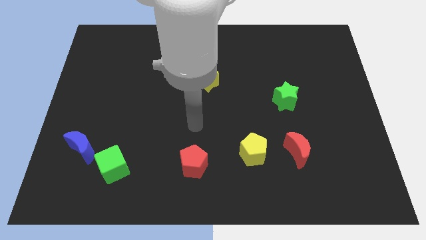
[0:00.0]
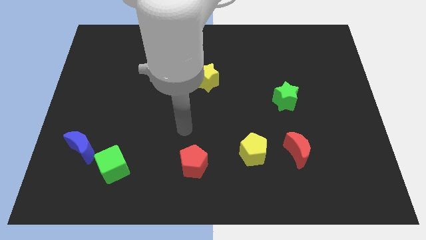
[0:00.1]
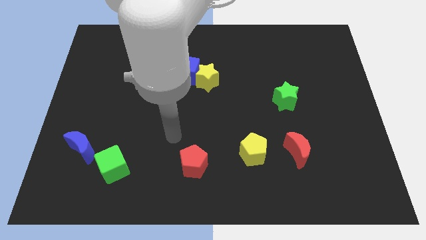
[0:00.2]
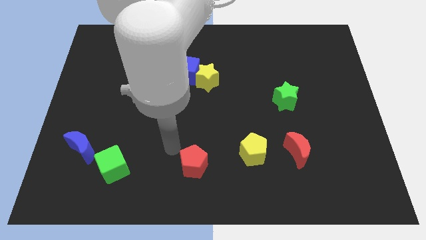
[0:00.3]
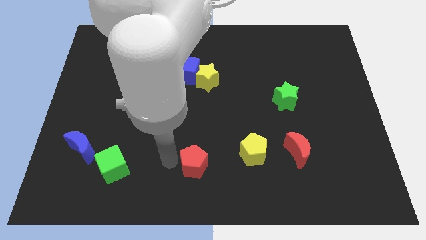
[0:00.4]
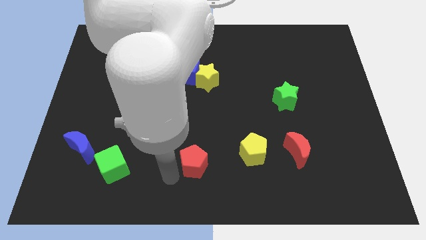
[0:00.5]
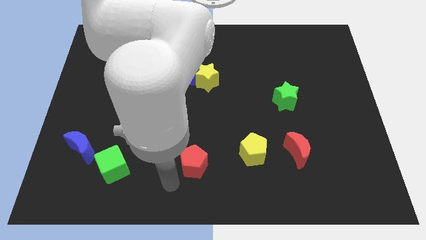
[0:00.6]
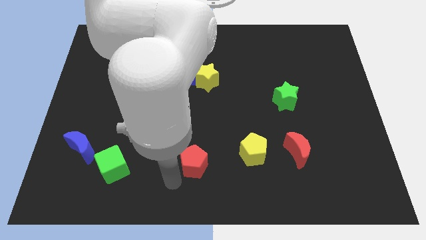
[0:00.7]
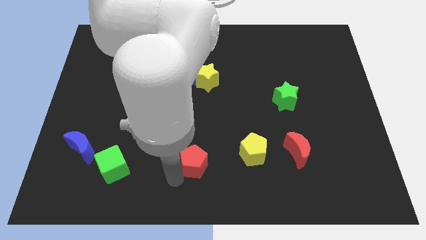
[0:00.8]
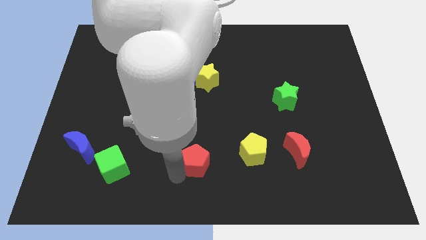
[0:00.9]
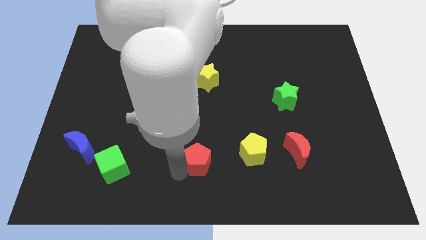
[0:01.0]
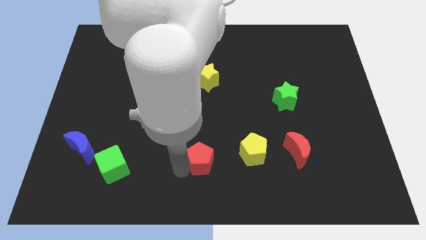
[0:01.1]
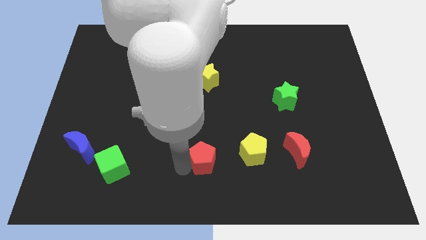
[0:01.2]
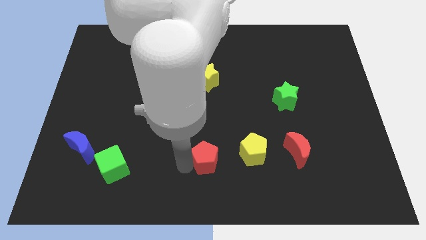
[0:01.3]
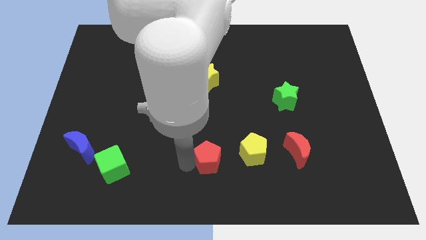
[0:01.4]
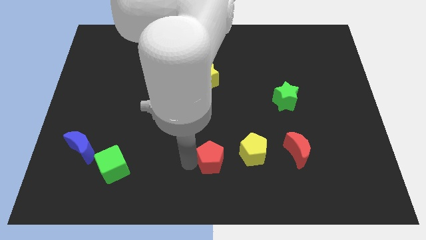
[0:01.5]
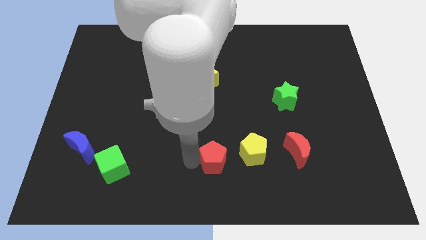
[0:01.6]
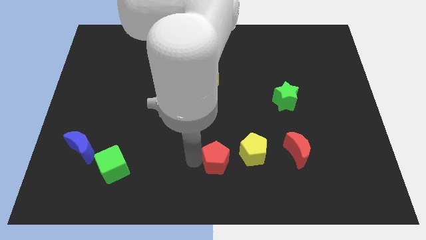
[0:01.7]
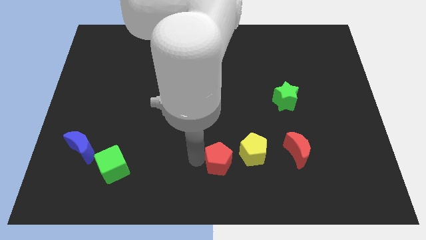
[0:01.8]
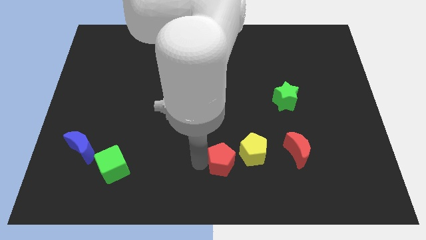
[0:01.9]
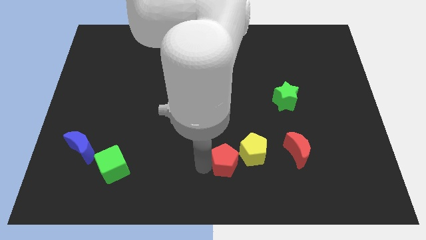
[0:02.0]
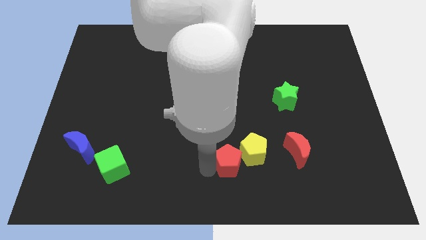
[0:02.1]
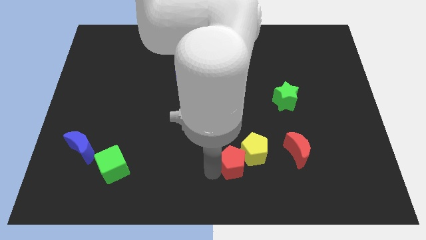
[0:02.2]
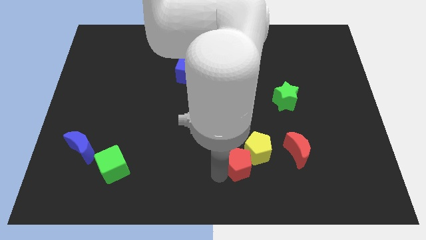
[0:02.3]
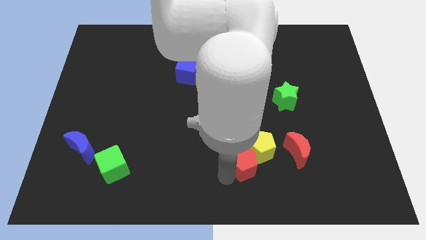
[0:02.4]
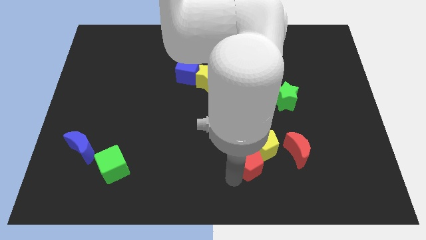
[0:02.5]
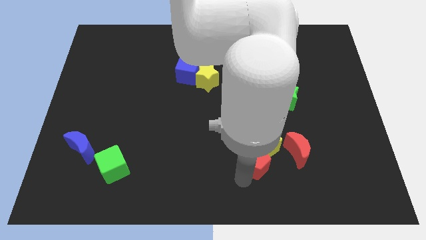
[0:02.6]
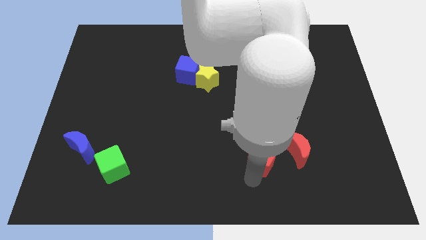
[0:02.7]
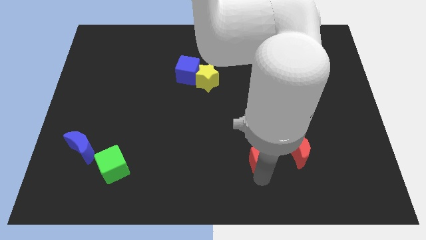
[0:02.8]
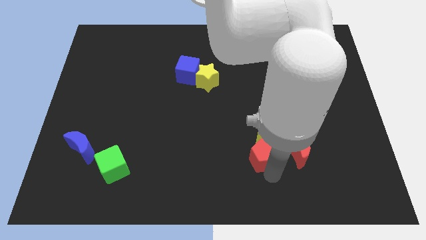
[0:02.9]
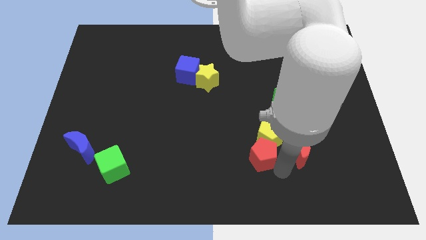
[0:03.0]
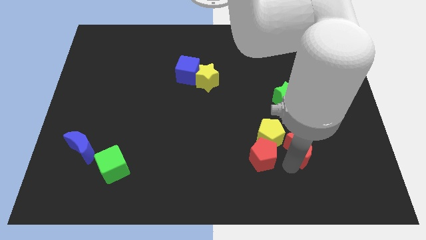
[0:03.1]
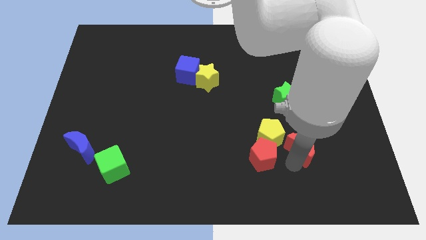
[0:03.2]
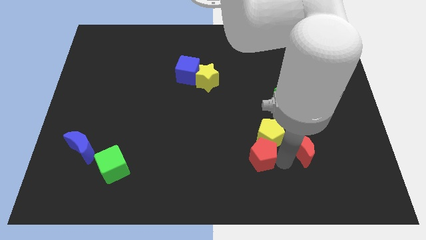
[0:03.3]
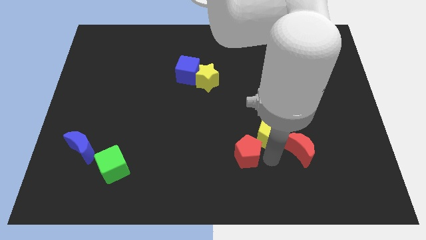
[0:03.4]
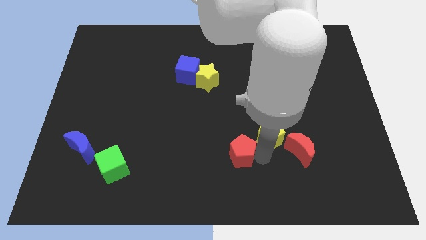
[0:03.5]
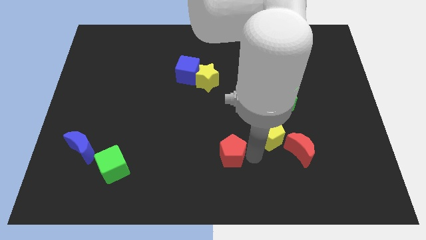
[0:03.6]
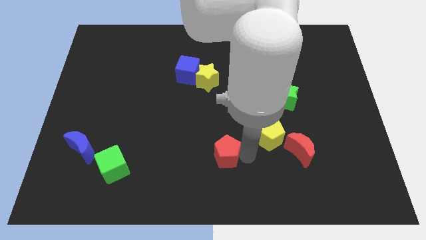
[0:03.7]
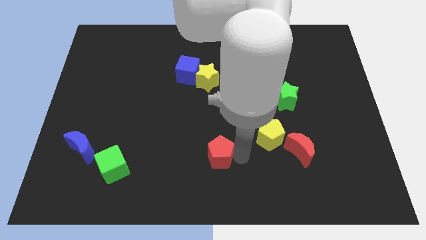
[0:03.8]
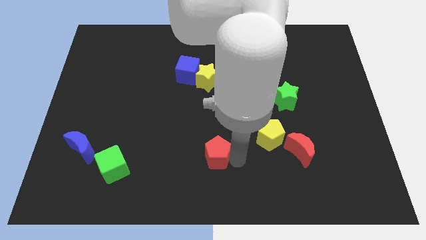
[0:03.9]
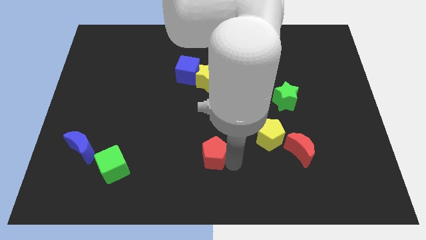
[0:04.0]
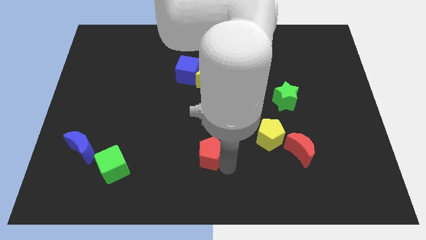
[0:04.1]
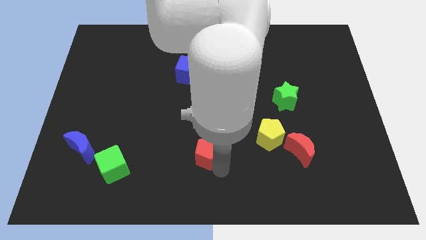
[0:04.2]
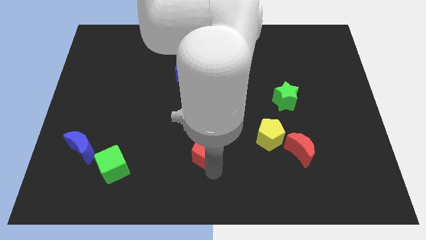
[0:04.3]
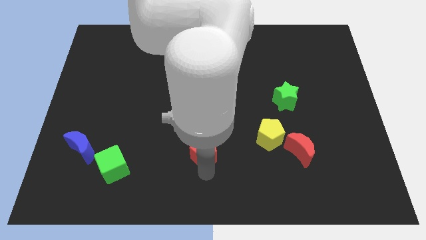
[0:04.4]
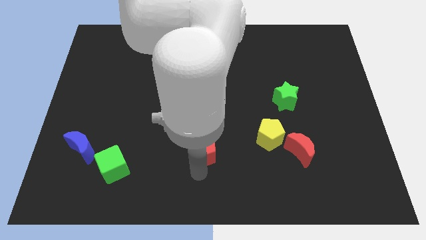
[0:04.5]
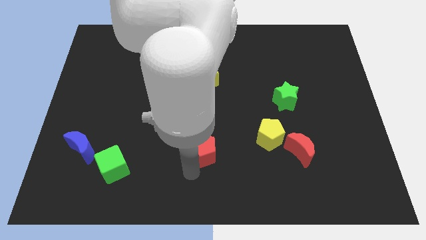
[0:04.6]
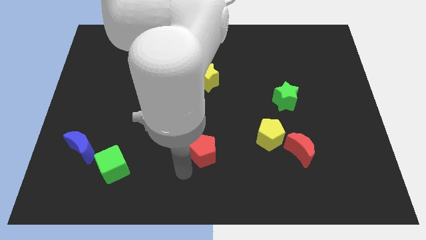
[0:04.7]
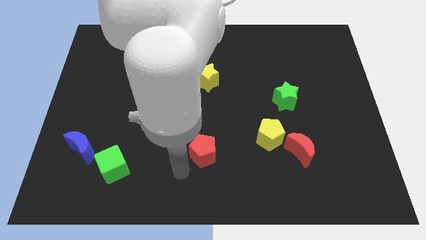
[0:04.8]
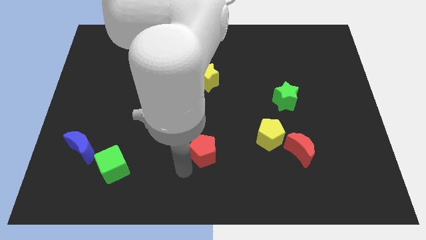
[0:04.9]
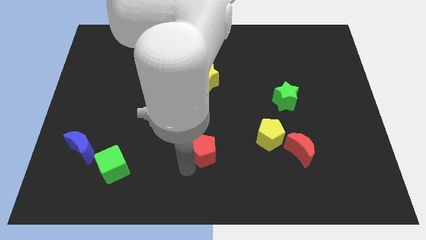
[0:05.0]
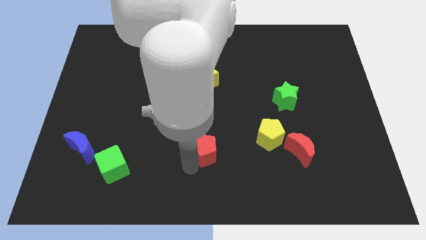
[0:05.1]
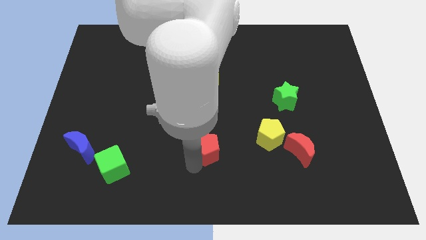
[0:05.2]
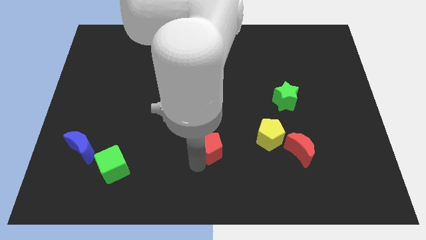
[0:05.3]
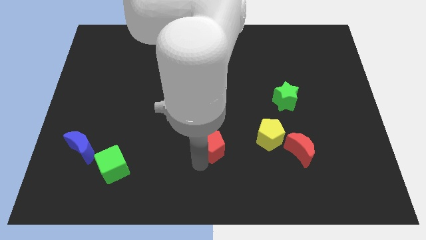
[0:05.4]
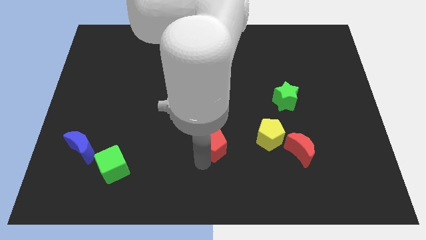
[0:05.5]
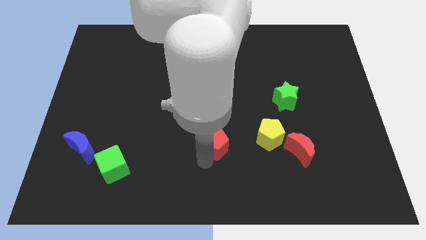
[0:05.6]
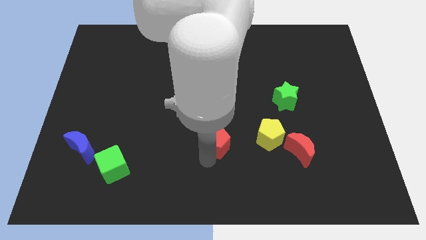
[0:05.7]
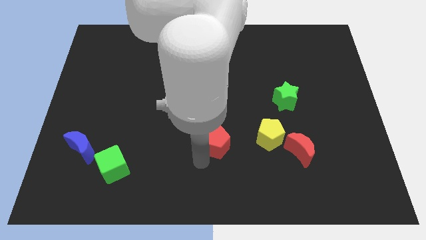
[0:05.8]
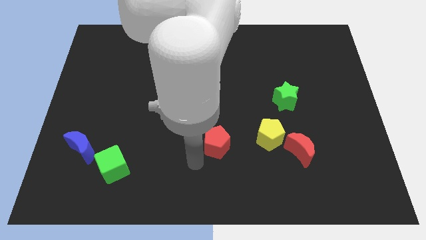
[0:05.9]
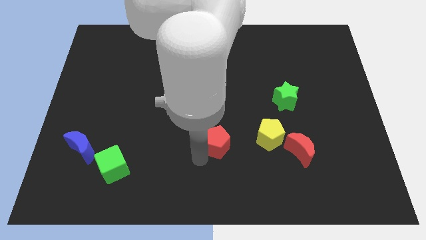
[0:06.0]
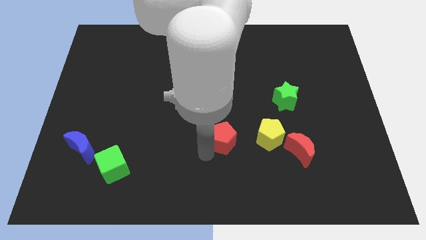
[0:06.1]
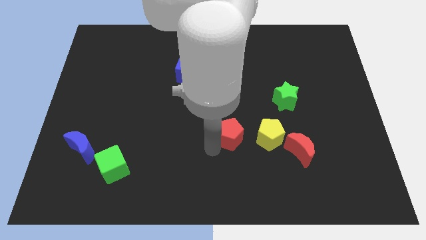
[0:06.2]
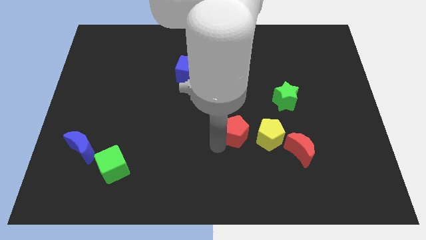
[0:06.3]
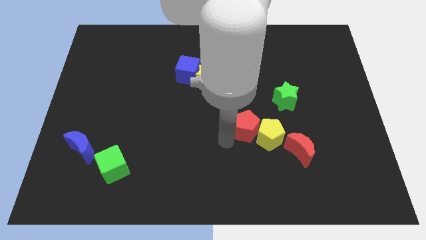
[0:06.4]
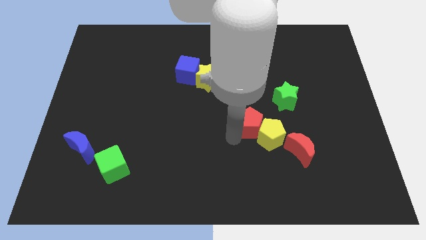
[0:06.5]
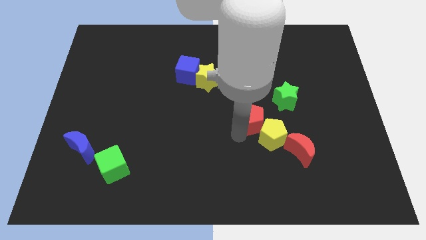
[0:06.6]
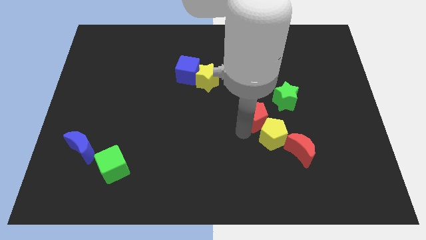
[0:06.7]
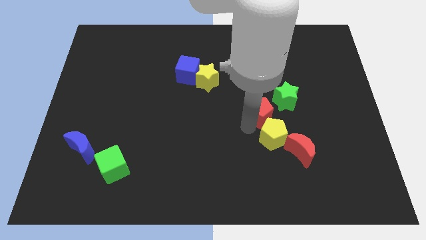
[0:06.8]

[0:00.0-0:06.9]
push the red pentagon upwards and right

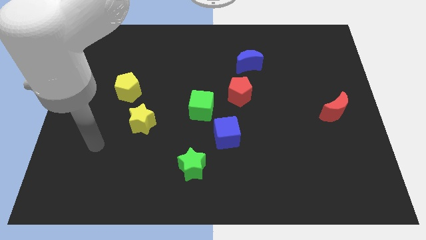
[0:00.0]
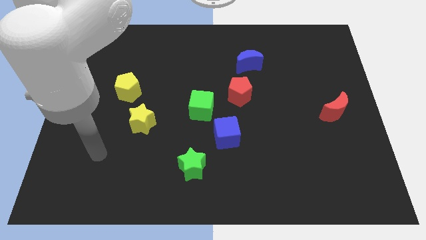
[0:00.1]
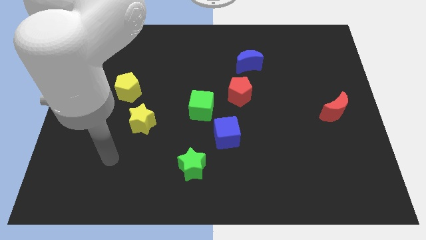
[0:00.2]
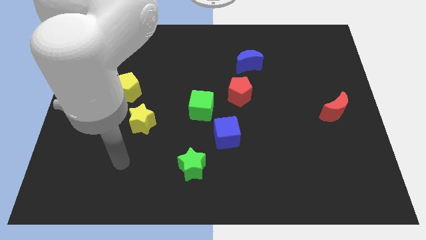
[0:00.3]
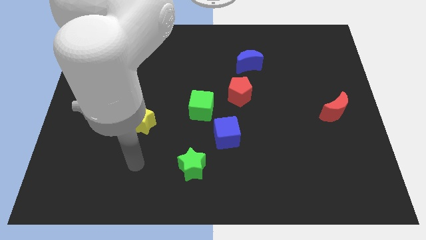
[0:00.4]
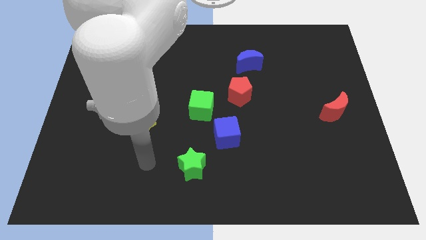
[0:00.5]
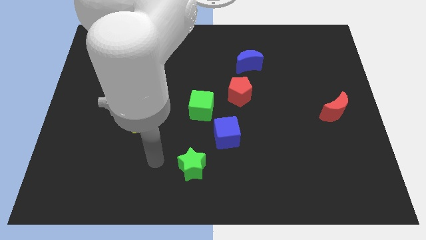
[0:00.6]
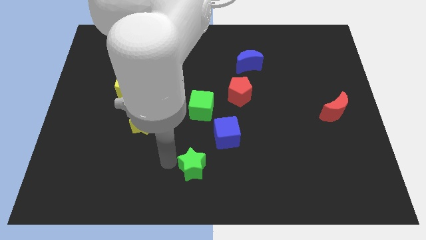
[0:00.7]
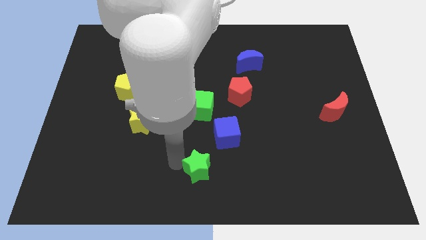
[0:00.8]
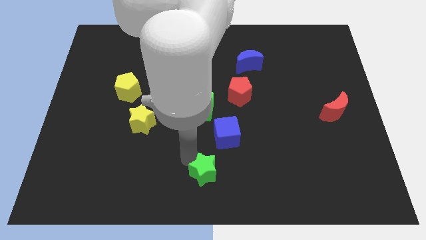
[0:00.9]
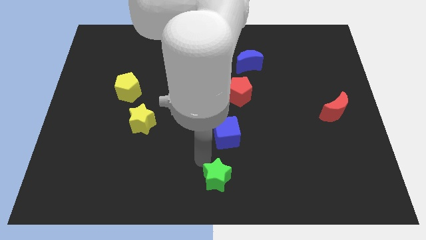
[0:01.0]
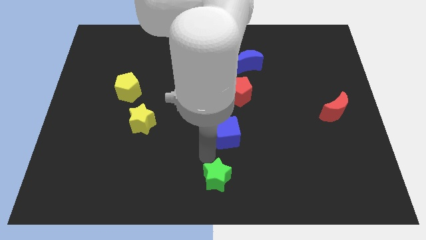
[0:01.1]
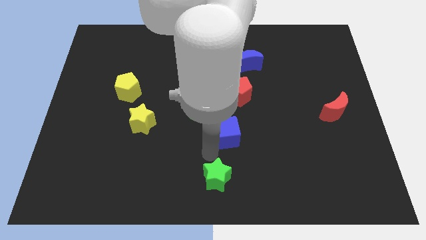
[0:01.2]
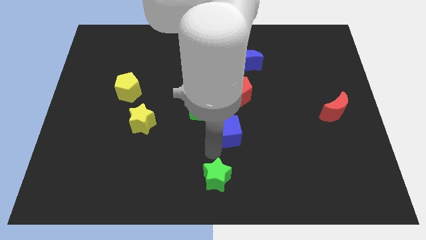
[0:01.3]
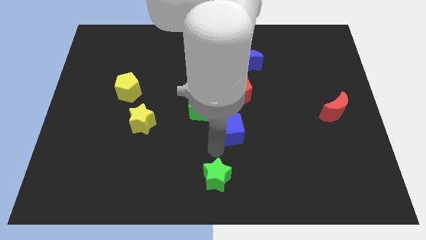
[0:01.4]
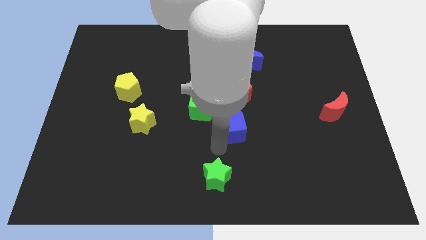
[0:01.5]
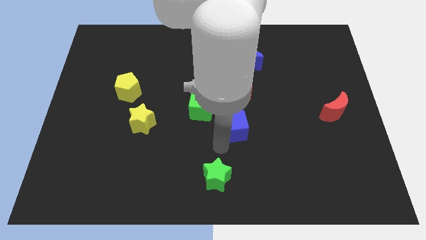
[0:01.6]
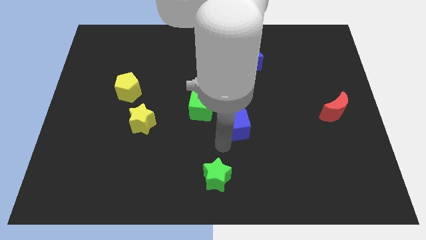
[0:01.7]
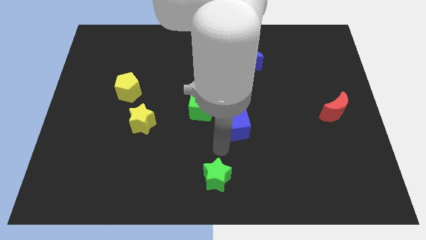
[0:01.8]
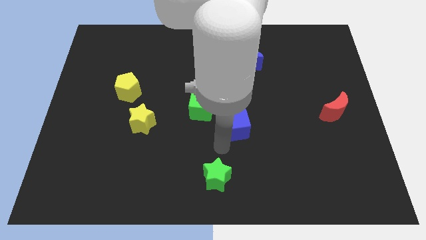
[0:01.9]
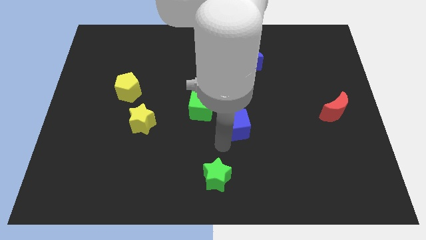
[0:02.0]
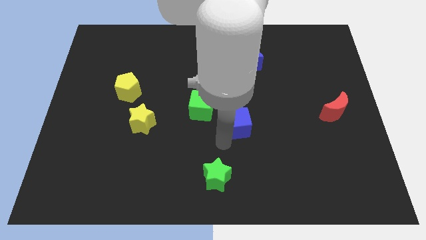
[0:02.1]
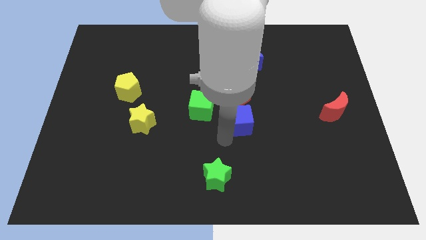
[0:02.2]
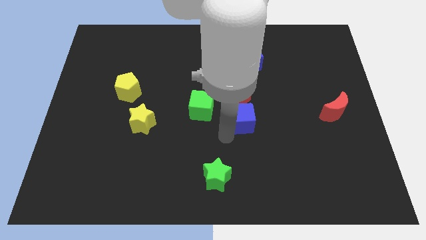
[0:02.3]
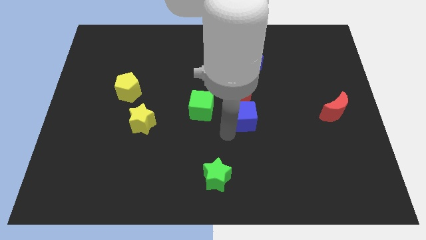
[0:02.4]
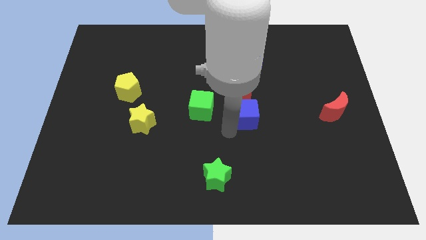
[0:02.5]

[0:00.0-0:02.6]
move the blue cube a bit upwards and to the right
